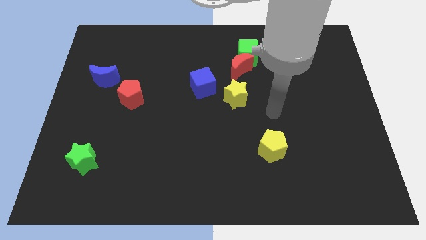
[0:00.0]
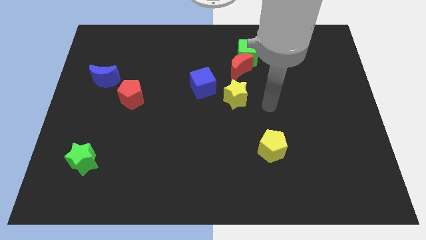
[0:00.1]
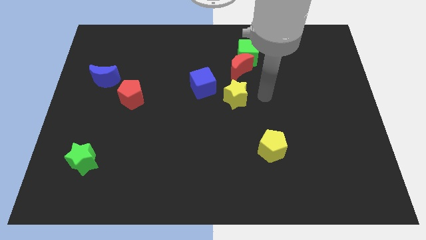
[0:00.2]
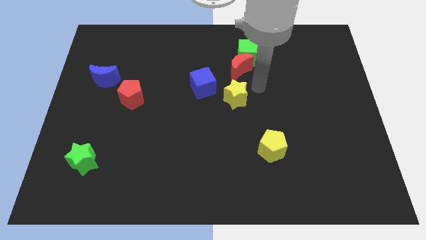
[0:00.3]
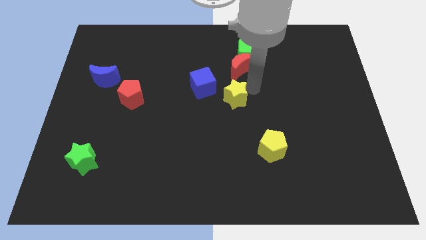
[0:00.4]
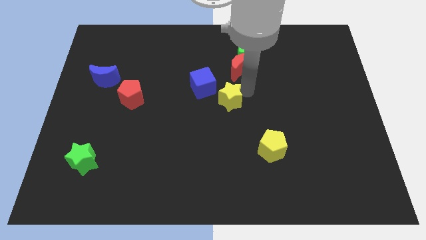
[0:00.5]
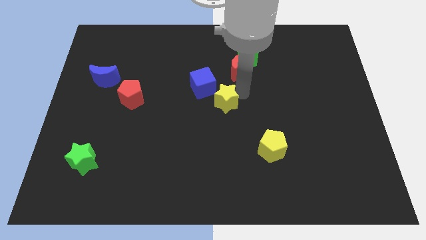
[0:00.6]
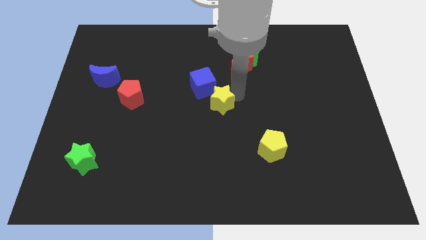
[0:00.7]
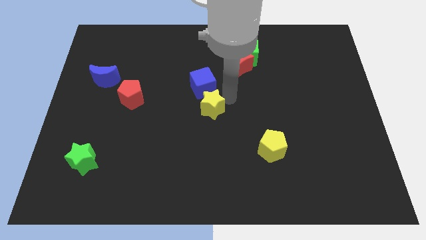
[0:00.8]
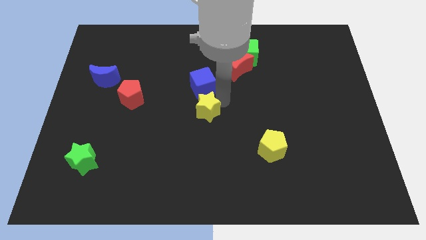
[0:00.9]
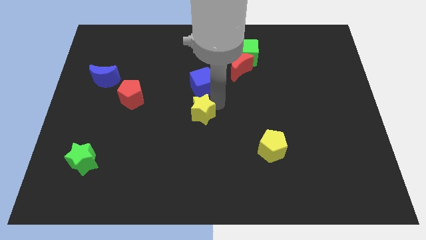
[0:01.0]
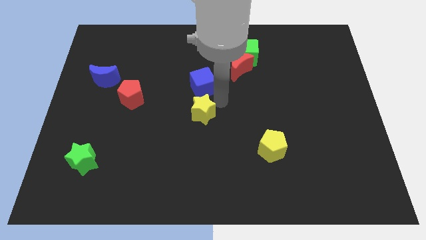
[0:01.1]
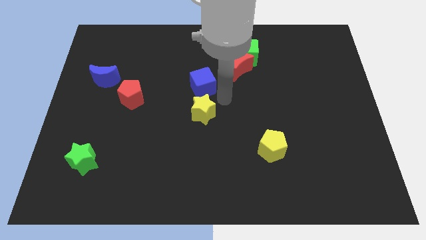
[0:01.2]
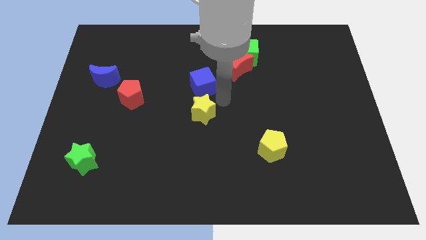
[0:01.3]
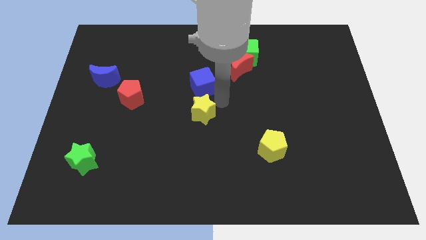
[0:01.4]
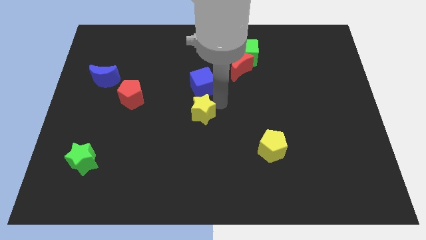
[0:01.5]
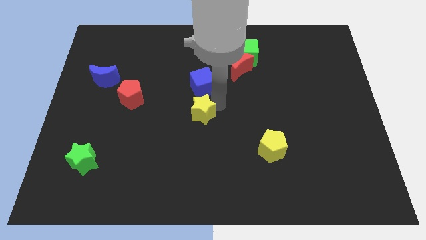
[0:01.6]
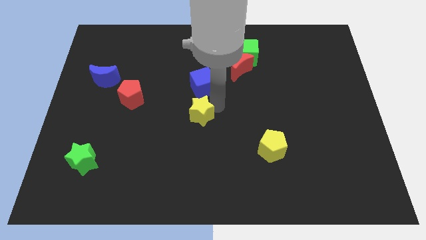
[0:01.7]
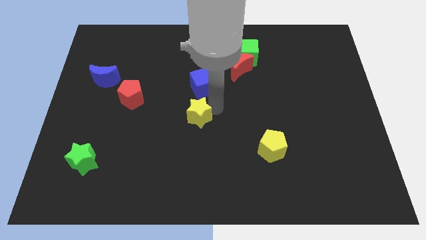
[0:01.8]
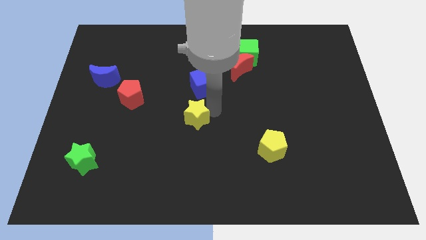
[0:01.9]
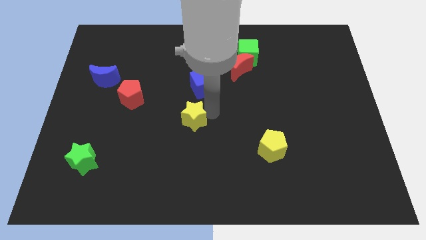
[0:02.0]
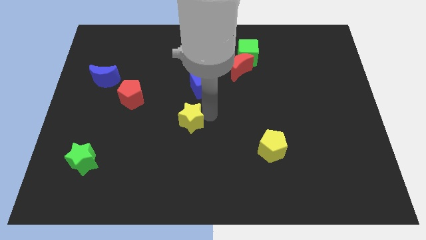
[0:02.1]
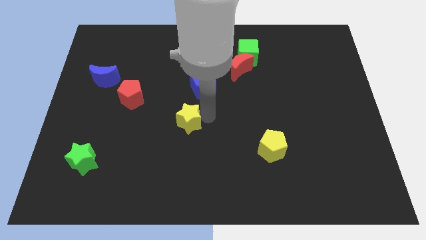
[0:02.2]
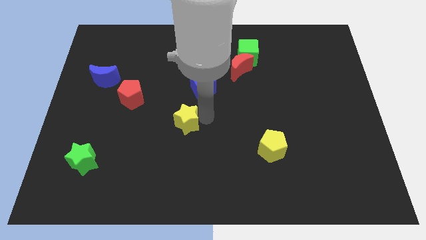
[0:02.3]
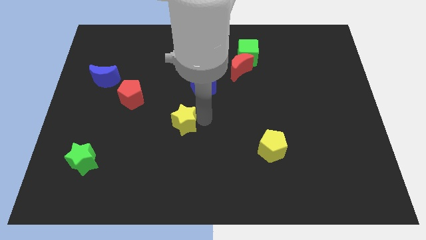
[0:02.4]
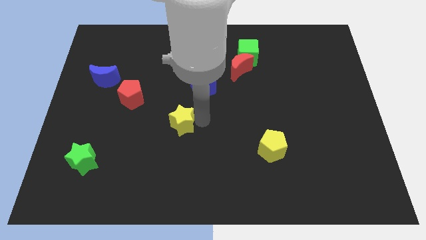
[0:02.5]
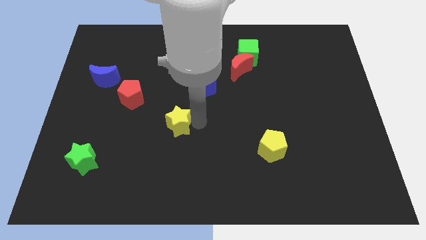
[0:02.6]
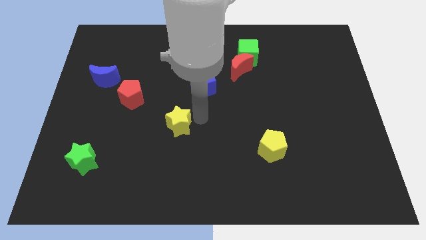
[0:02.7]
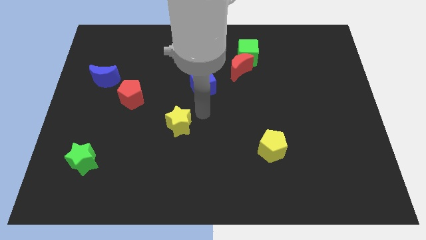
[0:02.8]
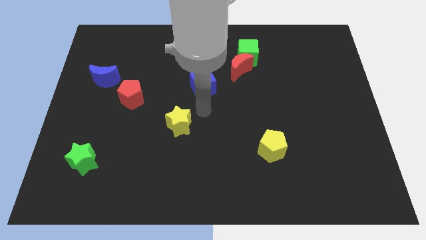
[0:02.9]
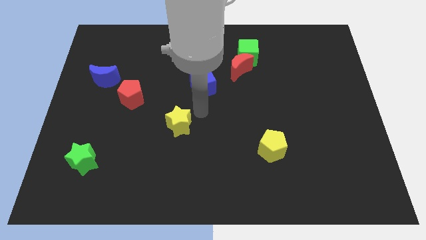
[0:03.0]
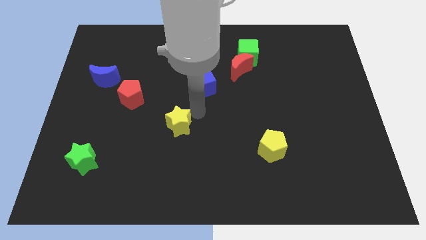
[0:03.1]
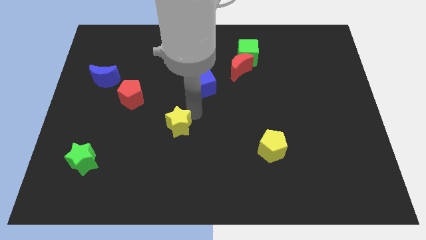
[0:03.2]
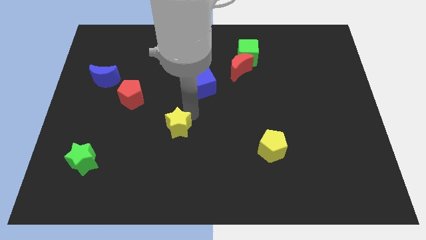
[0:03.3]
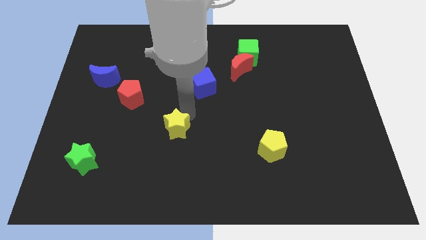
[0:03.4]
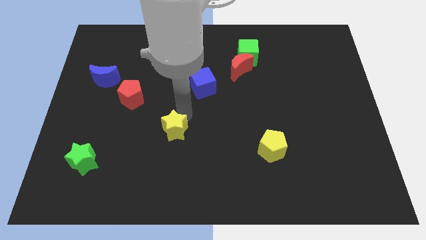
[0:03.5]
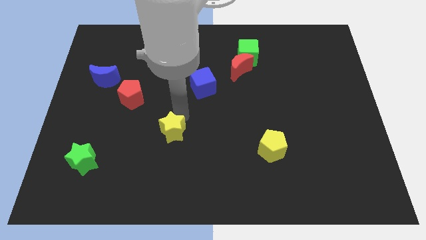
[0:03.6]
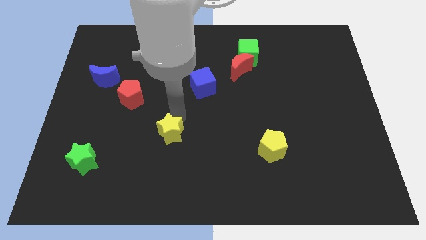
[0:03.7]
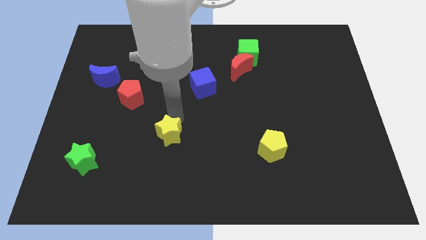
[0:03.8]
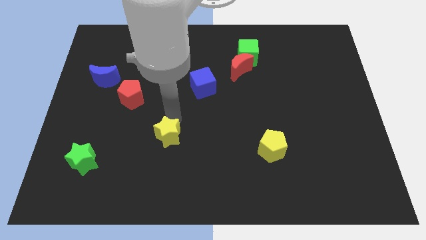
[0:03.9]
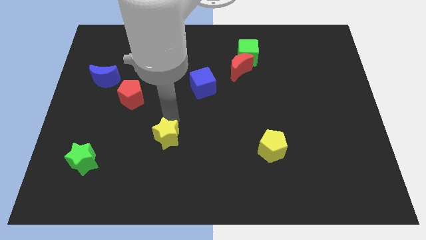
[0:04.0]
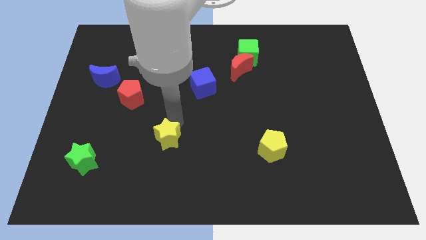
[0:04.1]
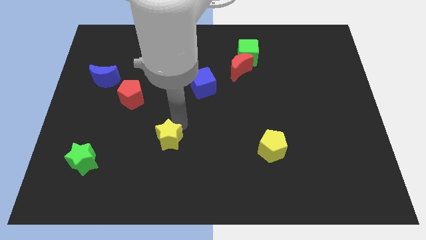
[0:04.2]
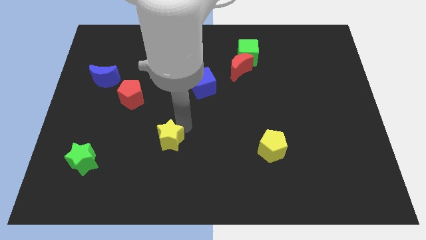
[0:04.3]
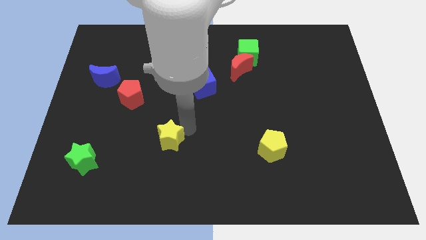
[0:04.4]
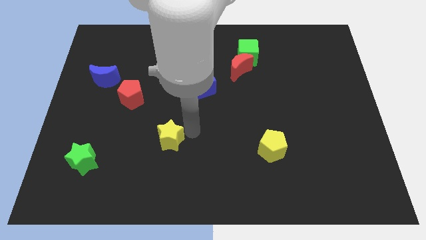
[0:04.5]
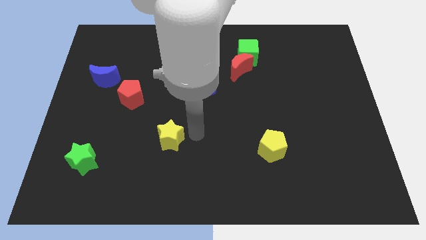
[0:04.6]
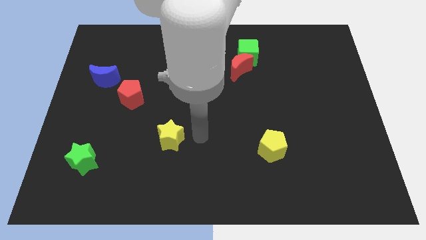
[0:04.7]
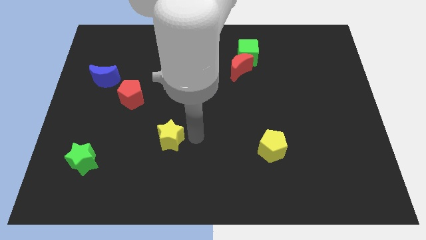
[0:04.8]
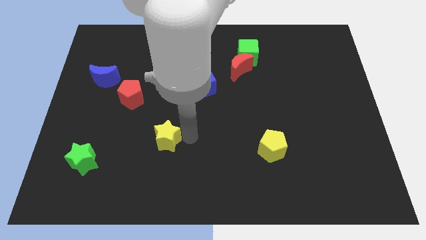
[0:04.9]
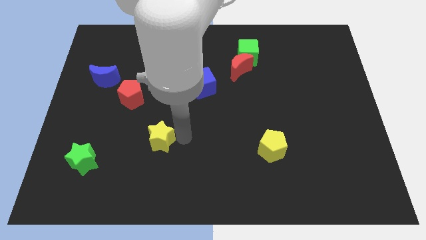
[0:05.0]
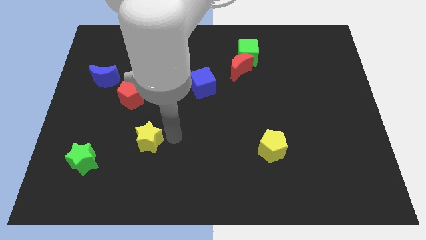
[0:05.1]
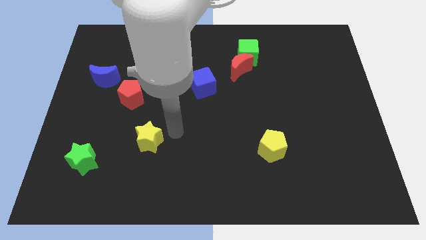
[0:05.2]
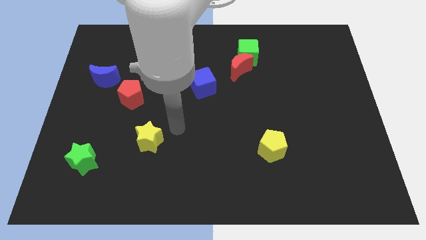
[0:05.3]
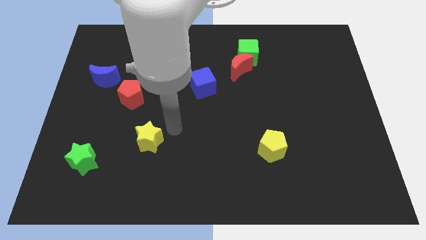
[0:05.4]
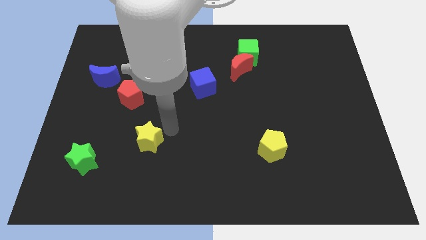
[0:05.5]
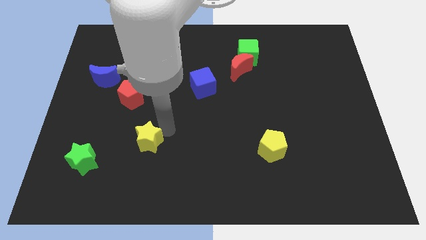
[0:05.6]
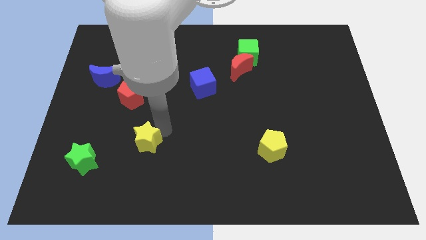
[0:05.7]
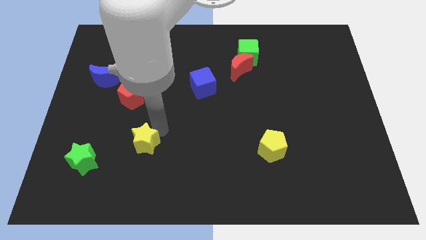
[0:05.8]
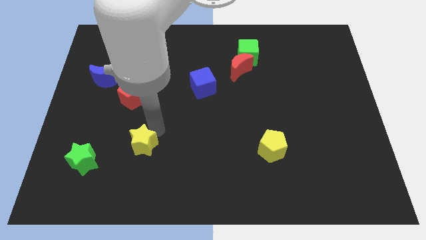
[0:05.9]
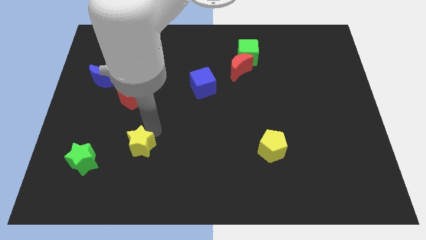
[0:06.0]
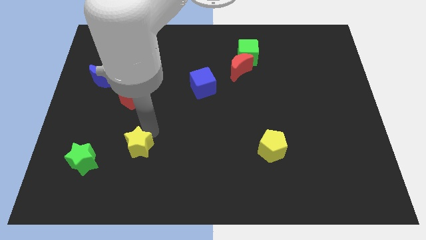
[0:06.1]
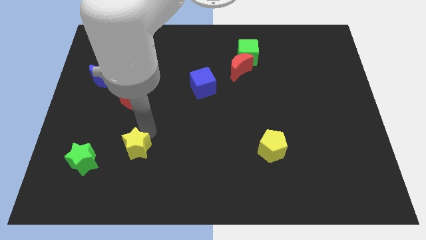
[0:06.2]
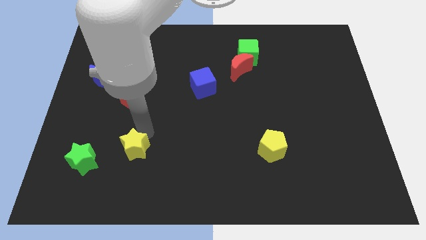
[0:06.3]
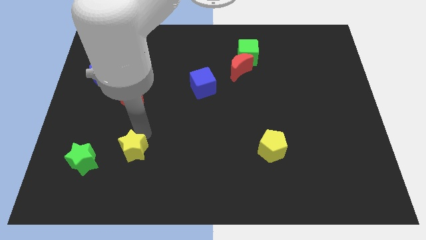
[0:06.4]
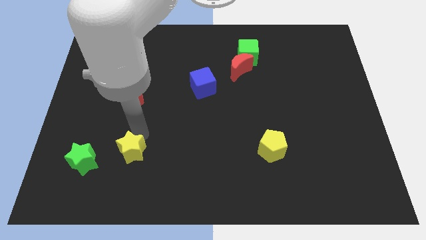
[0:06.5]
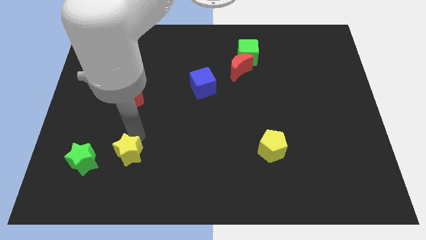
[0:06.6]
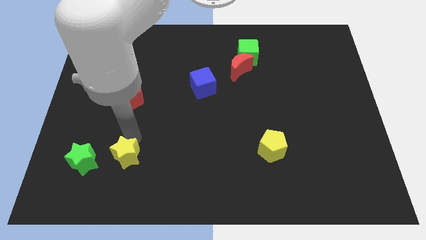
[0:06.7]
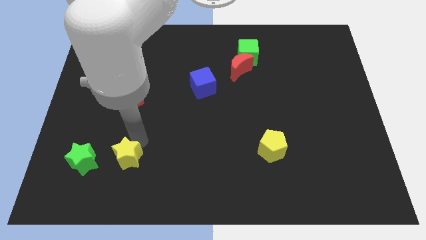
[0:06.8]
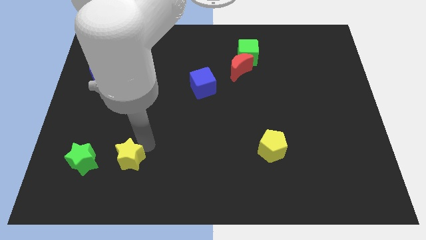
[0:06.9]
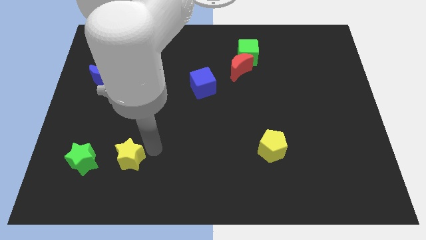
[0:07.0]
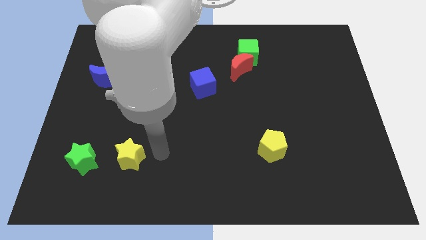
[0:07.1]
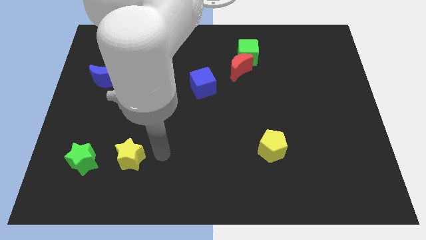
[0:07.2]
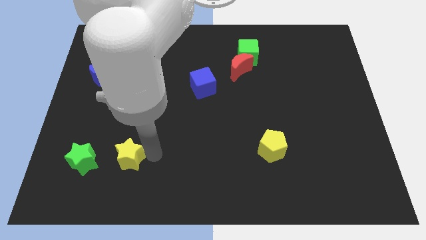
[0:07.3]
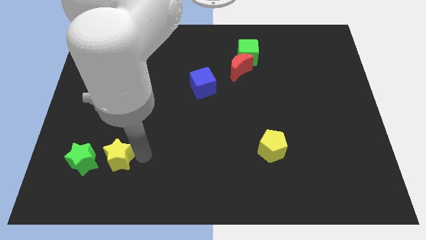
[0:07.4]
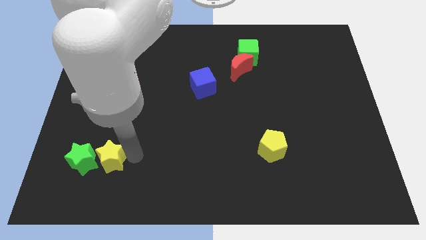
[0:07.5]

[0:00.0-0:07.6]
push the yellow star towards the green star
